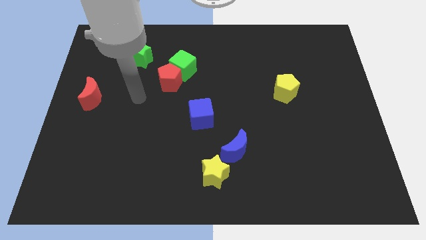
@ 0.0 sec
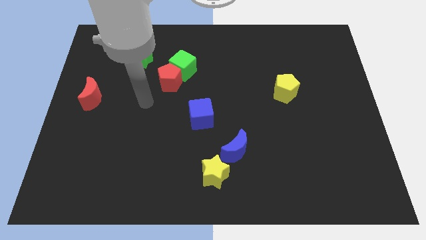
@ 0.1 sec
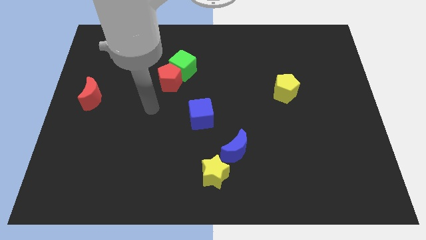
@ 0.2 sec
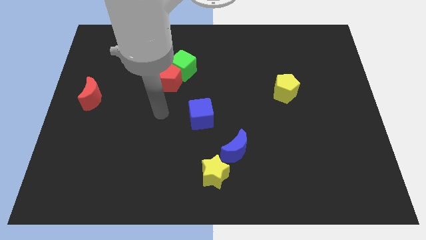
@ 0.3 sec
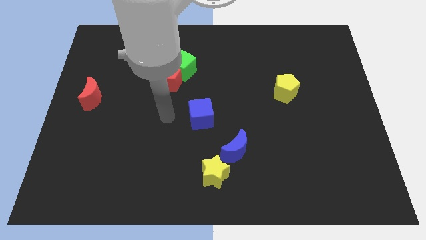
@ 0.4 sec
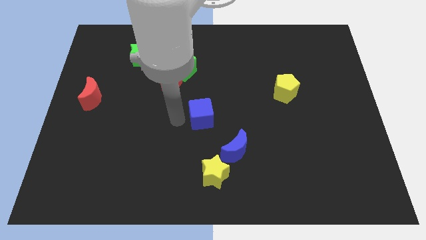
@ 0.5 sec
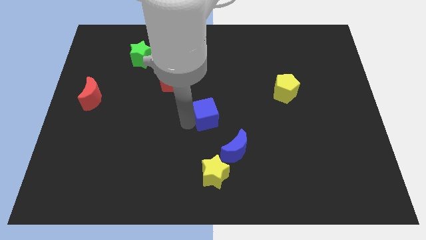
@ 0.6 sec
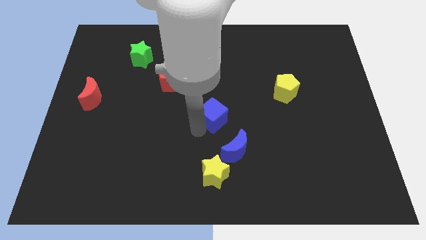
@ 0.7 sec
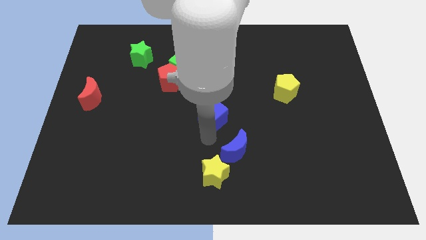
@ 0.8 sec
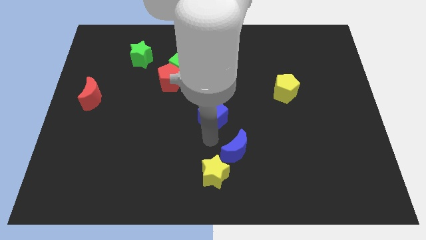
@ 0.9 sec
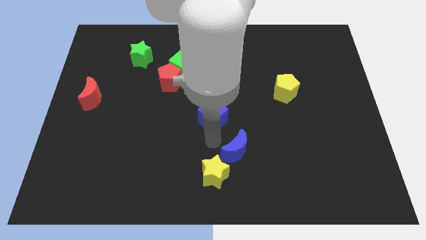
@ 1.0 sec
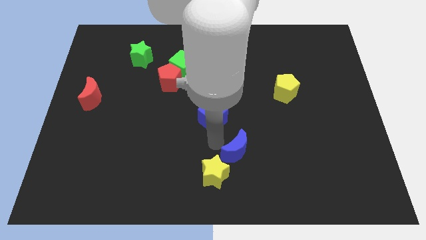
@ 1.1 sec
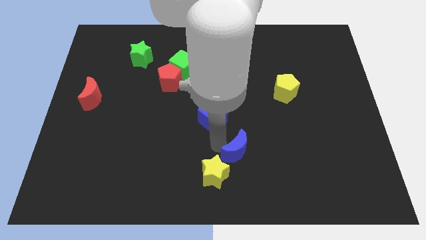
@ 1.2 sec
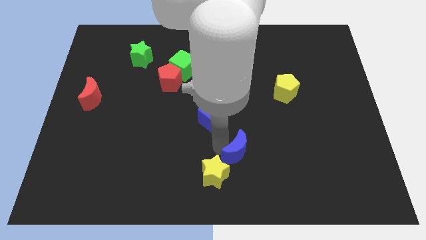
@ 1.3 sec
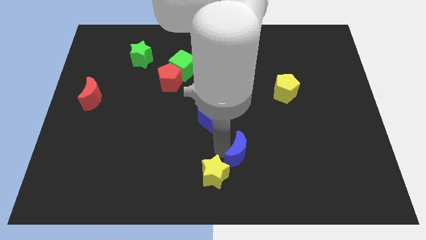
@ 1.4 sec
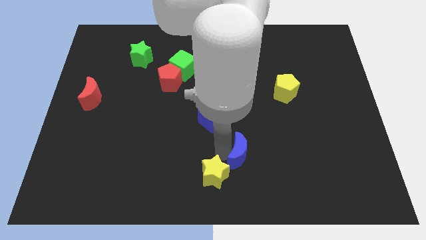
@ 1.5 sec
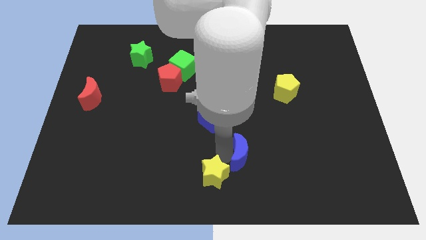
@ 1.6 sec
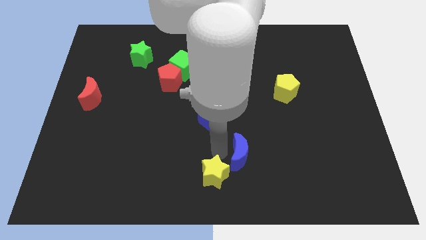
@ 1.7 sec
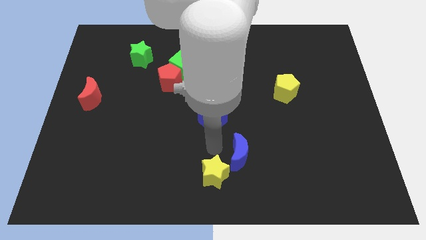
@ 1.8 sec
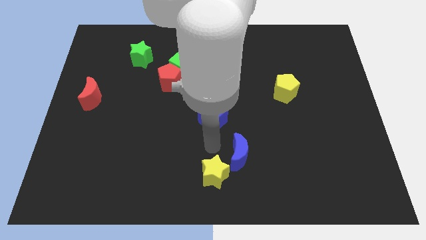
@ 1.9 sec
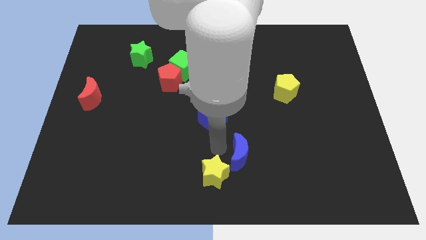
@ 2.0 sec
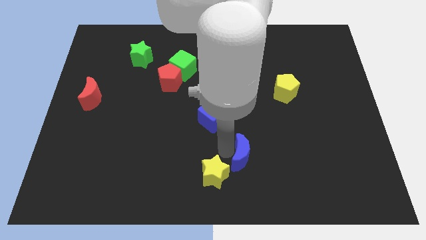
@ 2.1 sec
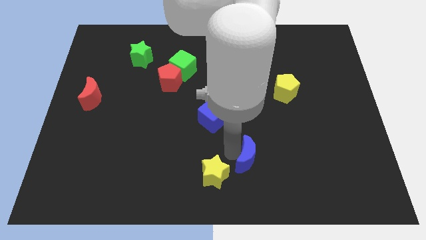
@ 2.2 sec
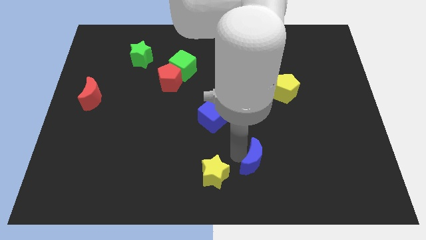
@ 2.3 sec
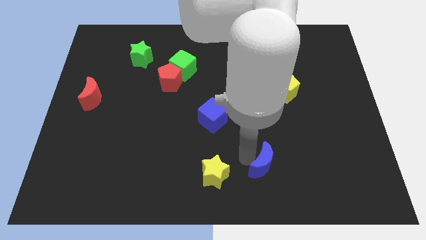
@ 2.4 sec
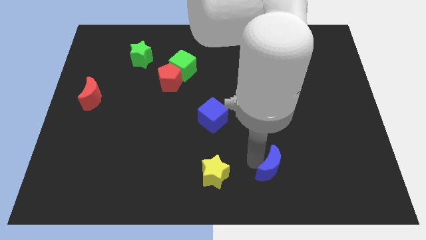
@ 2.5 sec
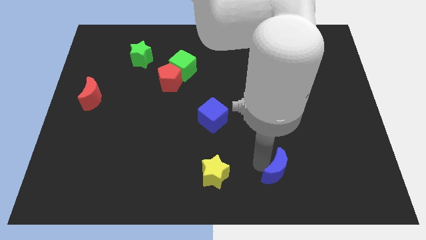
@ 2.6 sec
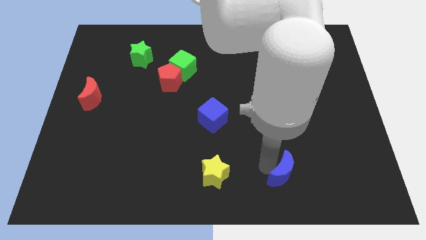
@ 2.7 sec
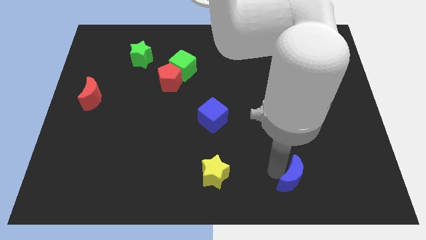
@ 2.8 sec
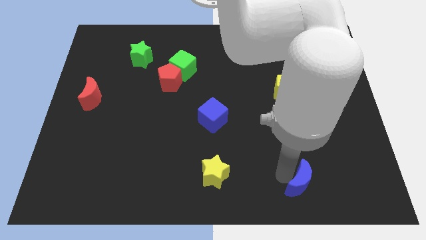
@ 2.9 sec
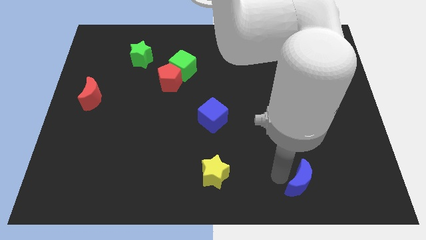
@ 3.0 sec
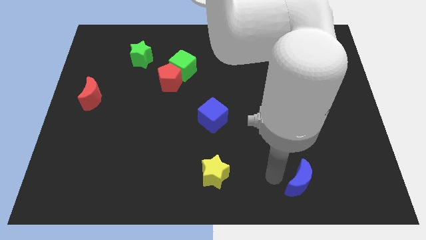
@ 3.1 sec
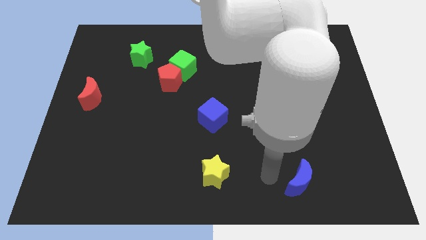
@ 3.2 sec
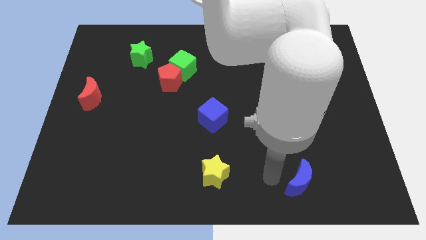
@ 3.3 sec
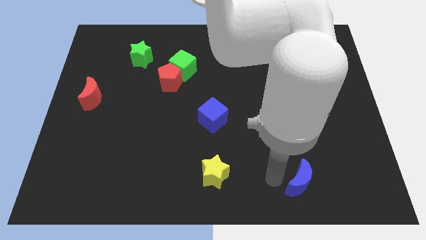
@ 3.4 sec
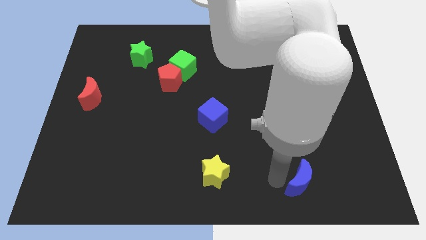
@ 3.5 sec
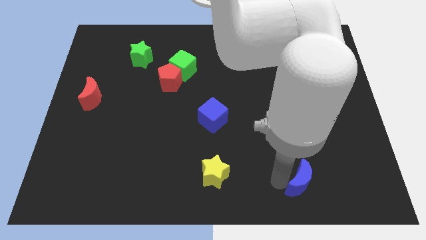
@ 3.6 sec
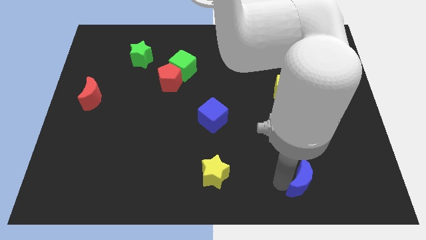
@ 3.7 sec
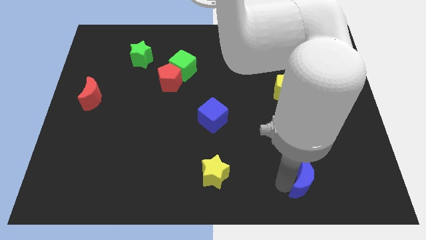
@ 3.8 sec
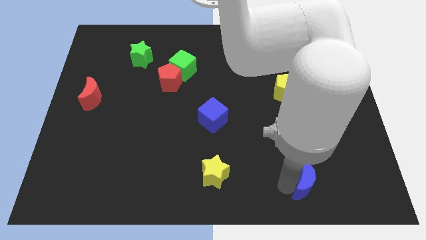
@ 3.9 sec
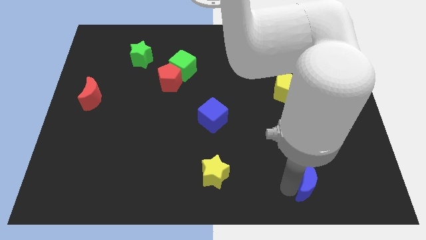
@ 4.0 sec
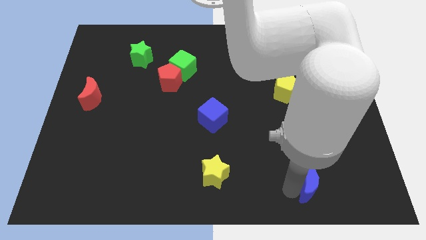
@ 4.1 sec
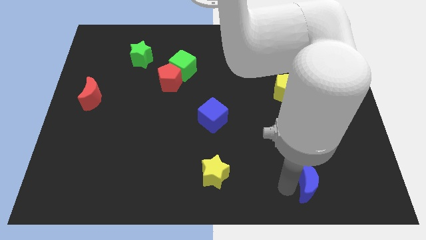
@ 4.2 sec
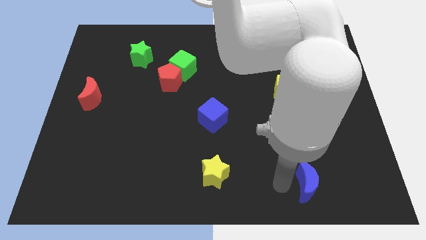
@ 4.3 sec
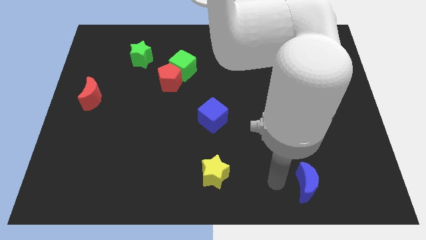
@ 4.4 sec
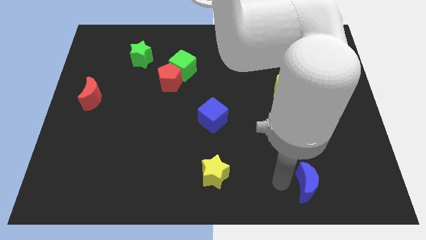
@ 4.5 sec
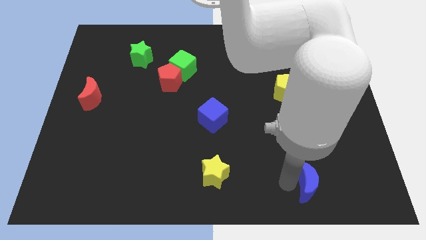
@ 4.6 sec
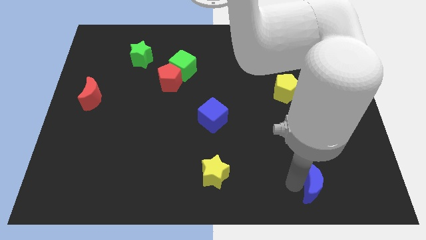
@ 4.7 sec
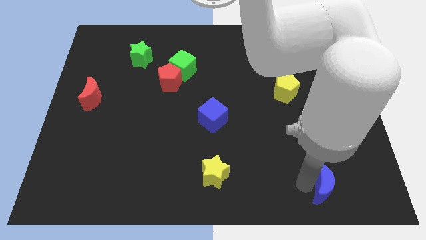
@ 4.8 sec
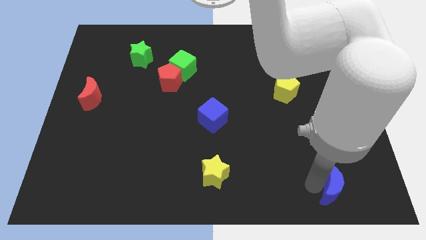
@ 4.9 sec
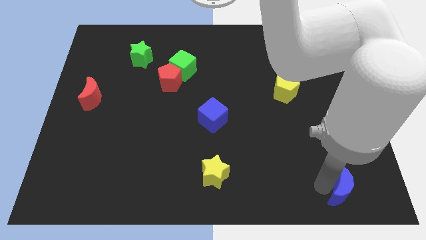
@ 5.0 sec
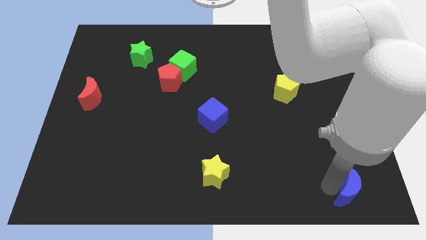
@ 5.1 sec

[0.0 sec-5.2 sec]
move the blue moon to the bottom right corner
